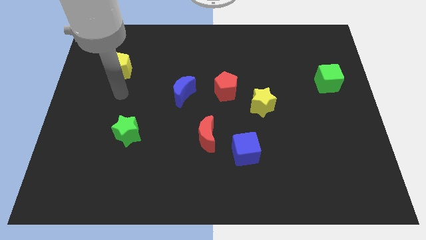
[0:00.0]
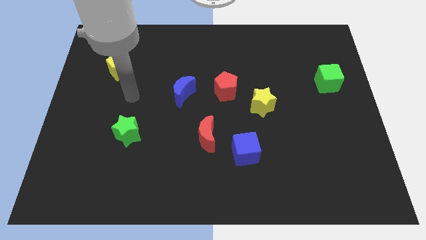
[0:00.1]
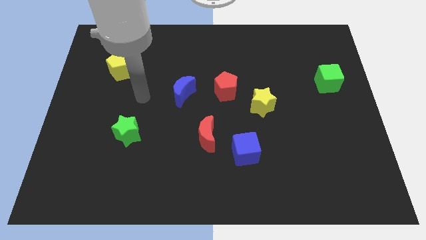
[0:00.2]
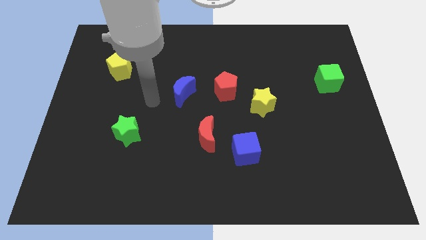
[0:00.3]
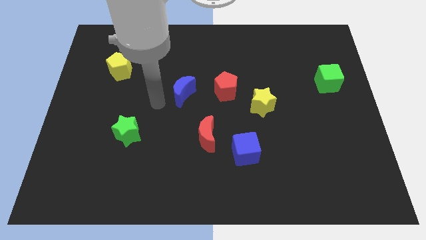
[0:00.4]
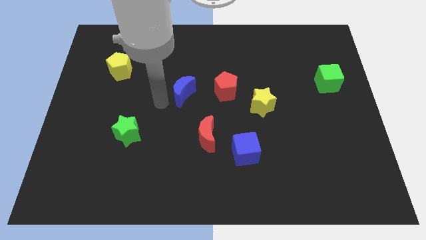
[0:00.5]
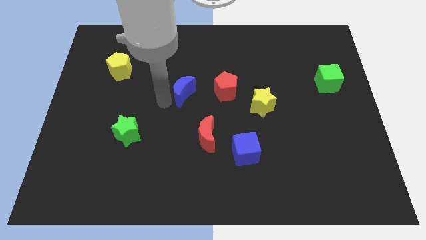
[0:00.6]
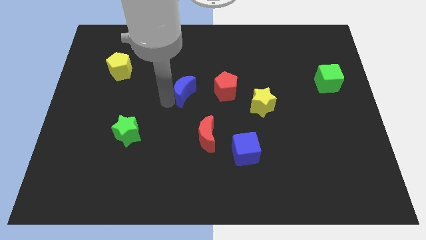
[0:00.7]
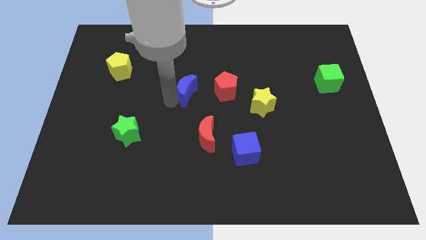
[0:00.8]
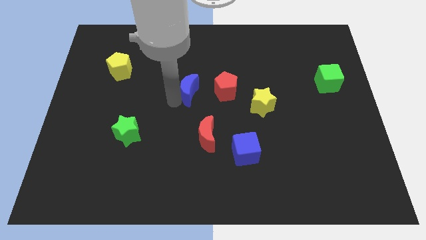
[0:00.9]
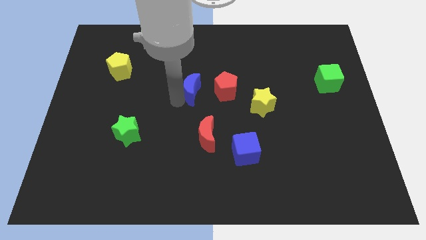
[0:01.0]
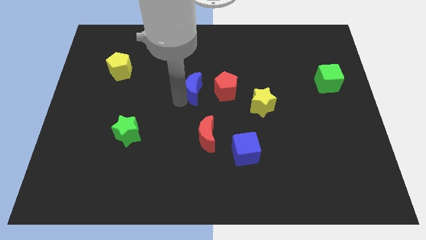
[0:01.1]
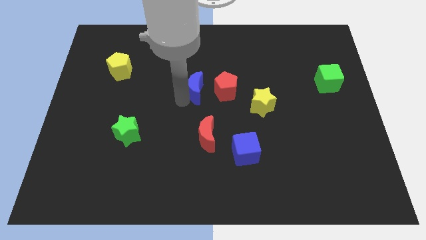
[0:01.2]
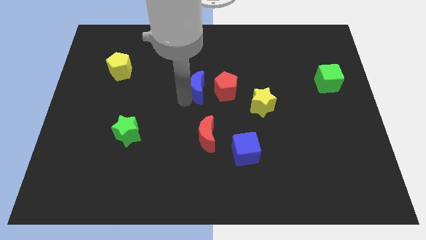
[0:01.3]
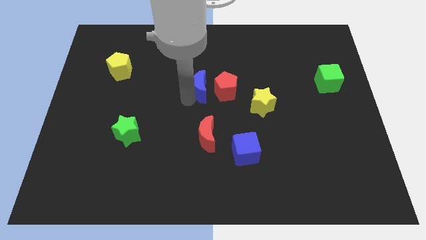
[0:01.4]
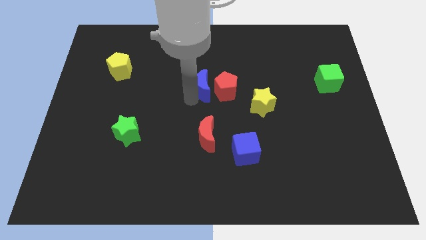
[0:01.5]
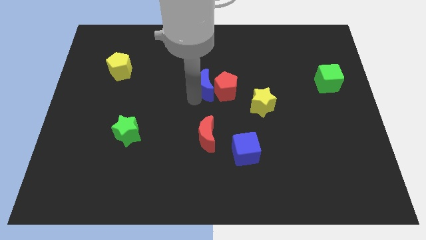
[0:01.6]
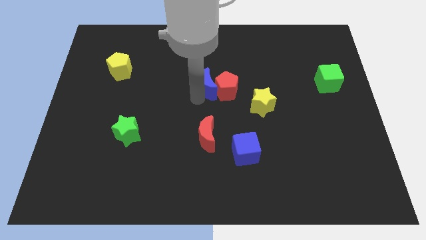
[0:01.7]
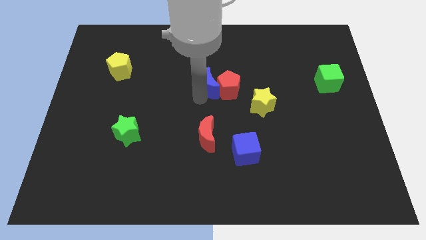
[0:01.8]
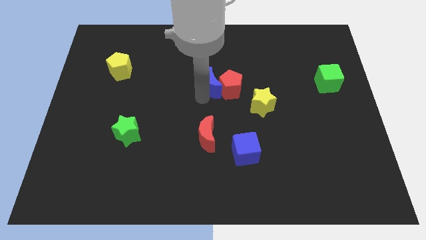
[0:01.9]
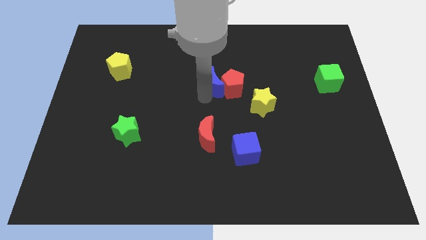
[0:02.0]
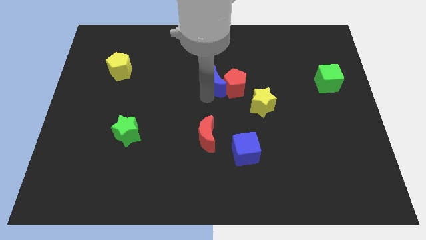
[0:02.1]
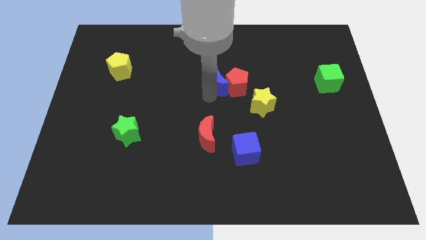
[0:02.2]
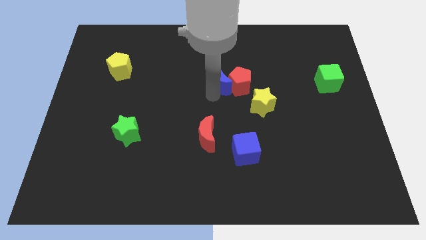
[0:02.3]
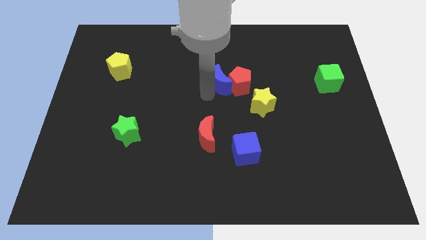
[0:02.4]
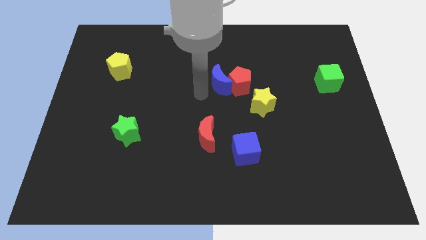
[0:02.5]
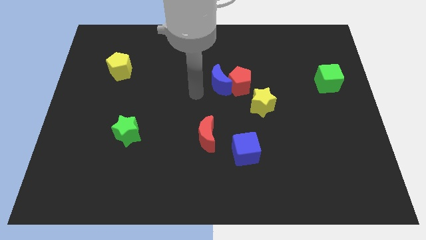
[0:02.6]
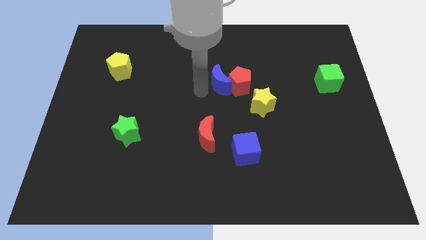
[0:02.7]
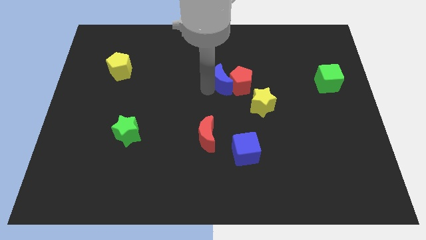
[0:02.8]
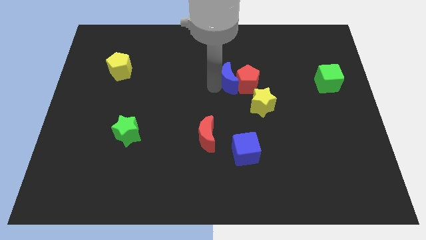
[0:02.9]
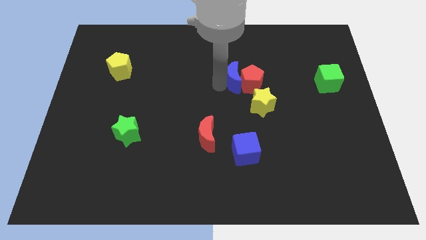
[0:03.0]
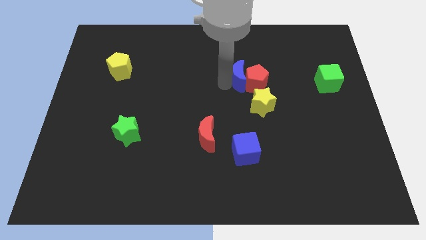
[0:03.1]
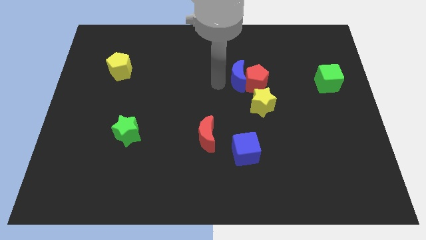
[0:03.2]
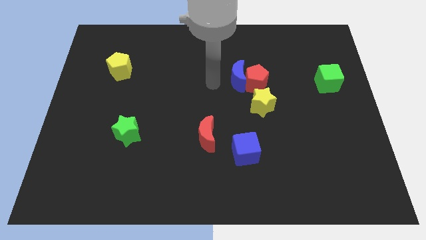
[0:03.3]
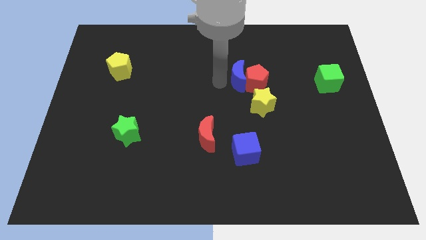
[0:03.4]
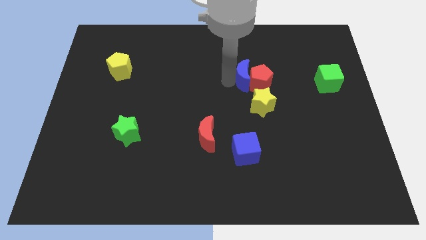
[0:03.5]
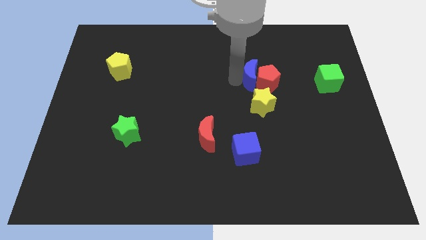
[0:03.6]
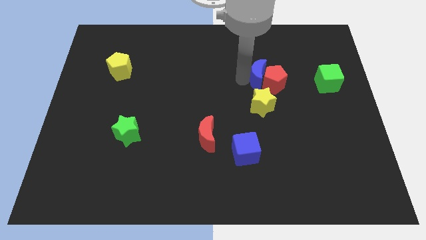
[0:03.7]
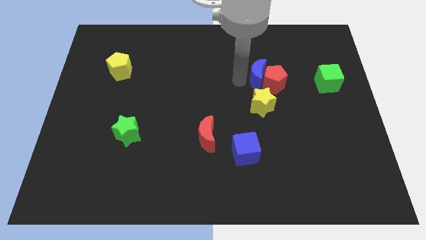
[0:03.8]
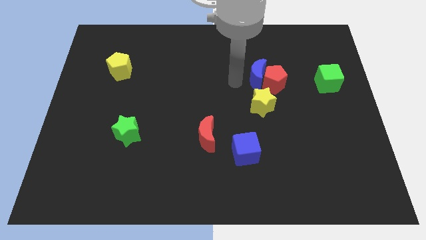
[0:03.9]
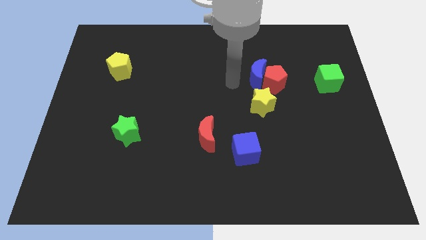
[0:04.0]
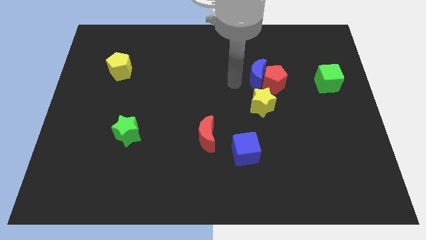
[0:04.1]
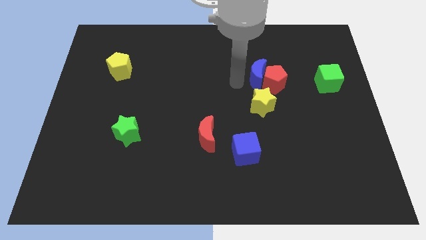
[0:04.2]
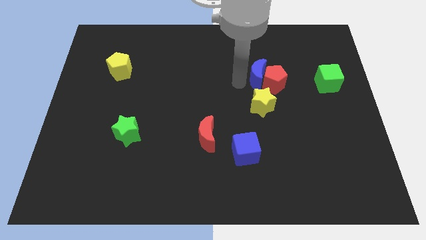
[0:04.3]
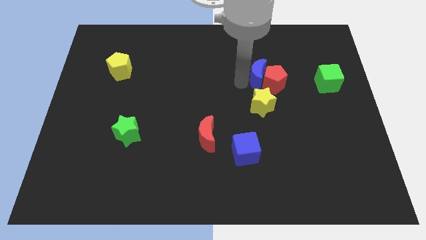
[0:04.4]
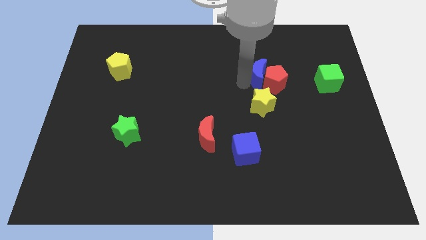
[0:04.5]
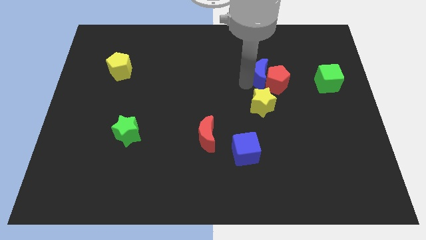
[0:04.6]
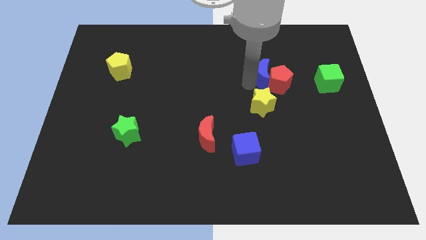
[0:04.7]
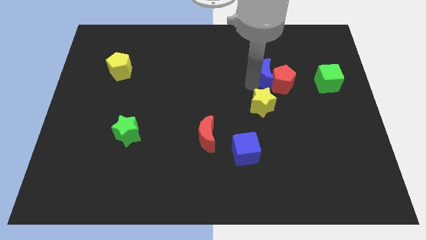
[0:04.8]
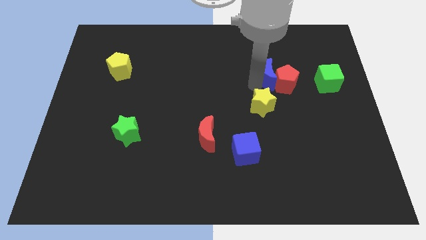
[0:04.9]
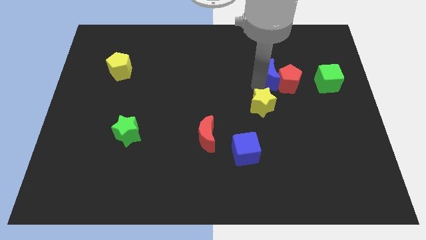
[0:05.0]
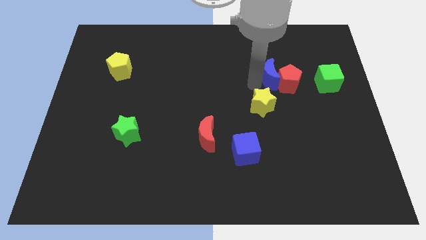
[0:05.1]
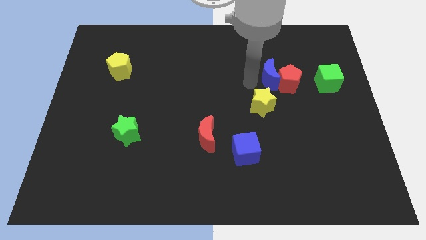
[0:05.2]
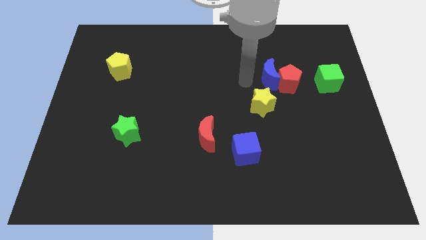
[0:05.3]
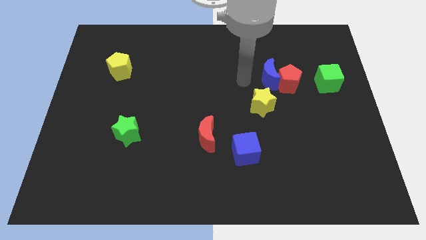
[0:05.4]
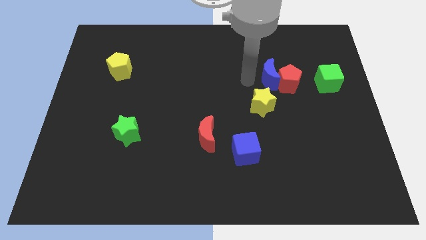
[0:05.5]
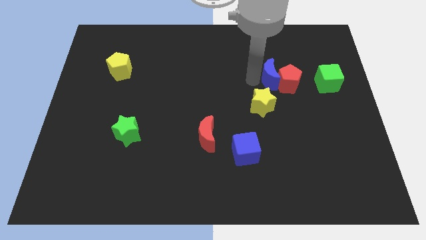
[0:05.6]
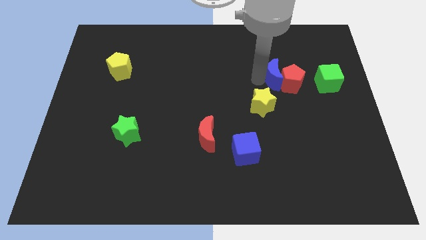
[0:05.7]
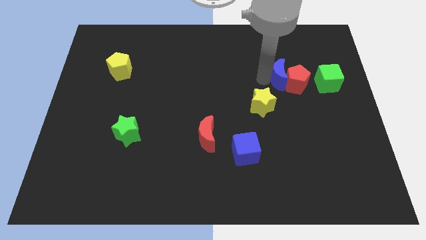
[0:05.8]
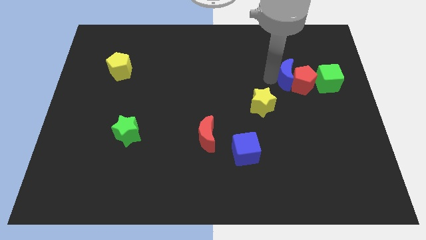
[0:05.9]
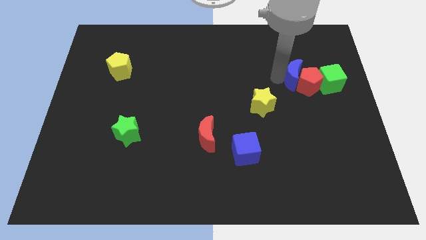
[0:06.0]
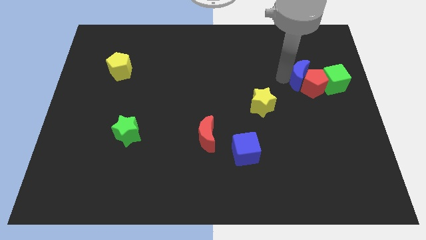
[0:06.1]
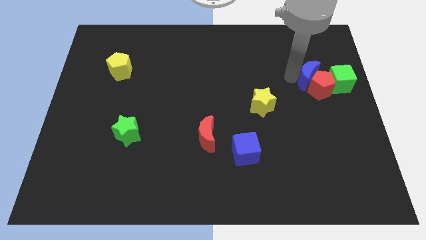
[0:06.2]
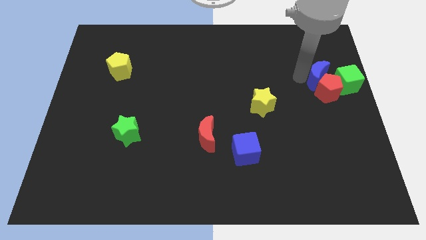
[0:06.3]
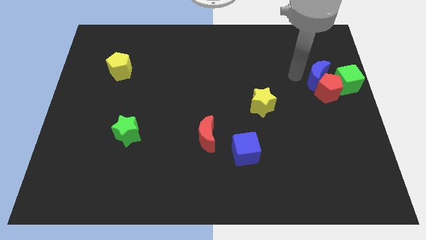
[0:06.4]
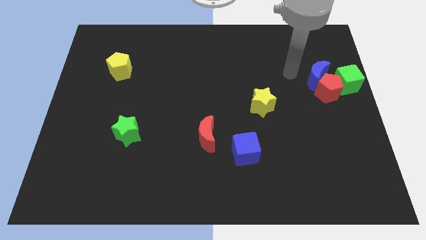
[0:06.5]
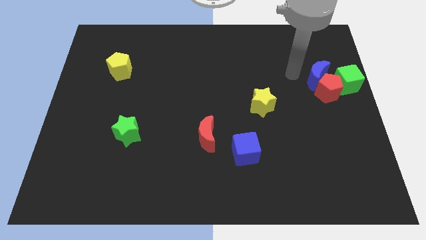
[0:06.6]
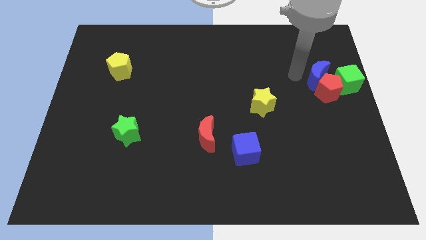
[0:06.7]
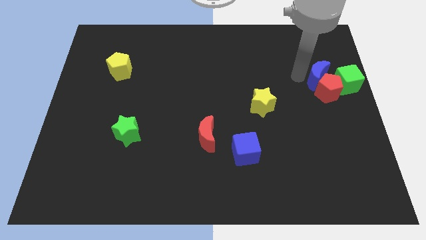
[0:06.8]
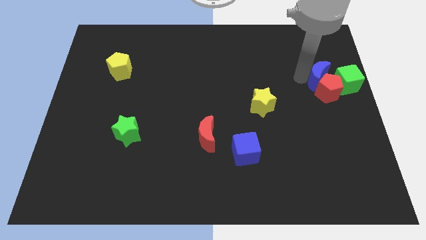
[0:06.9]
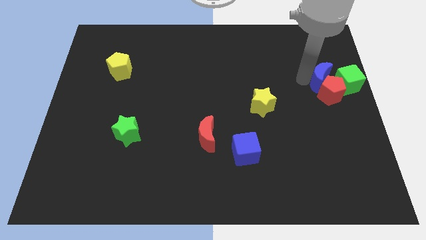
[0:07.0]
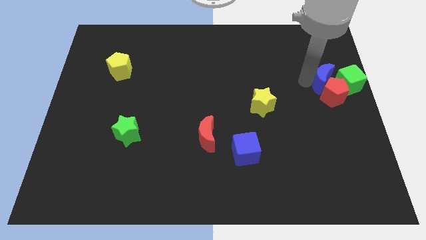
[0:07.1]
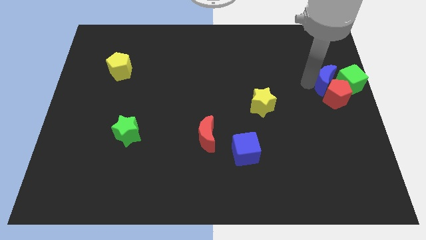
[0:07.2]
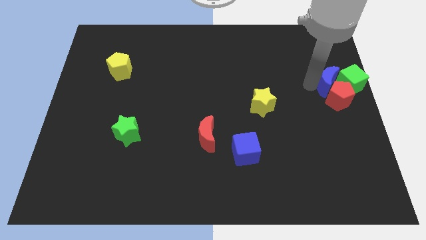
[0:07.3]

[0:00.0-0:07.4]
push the blue moon towards the green cube
